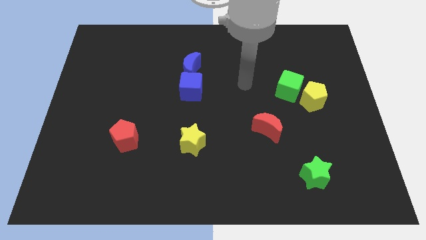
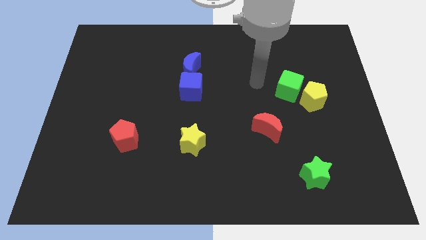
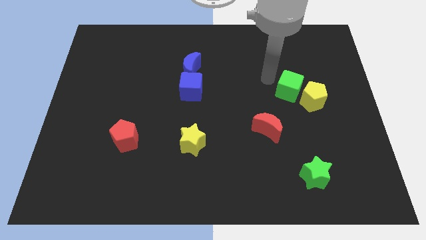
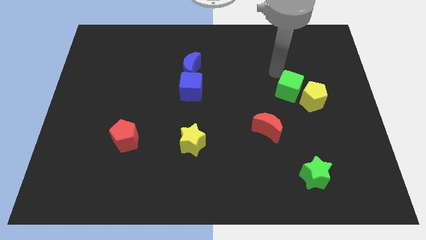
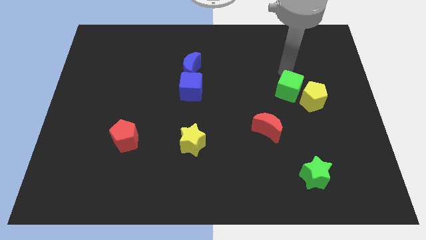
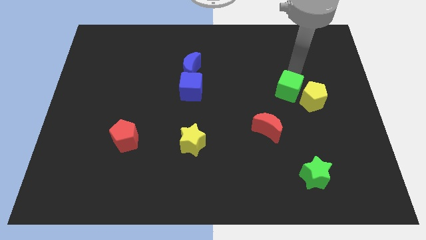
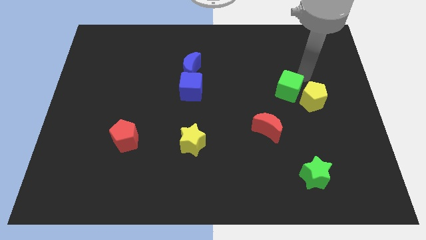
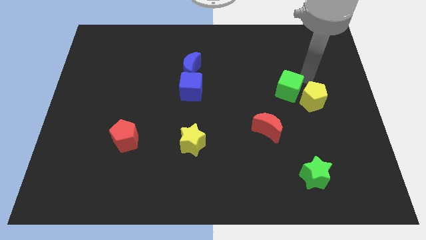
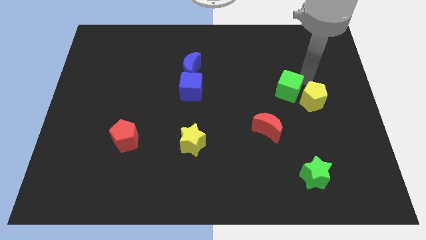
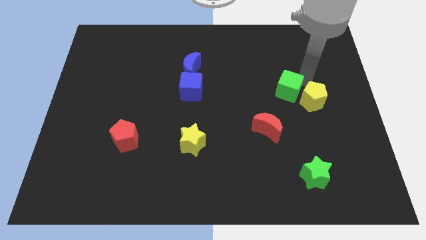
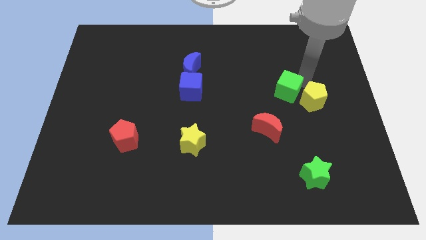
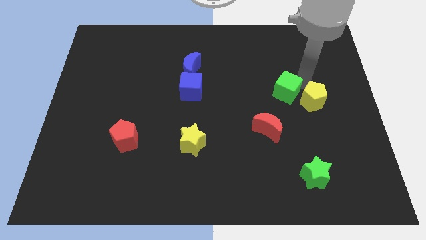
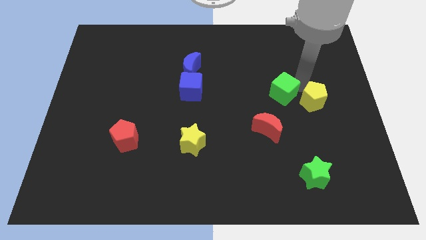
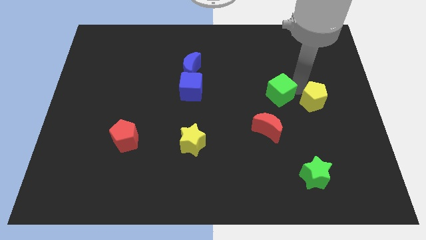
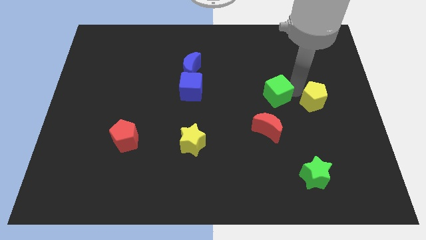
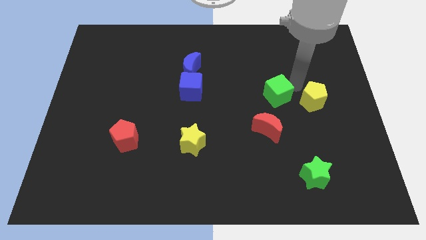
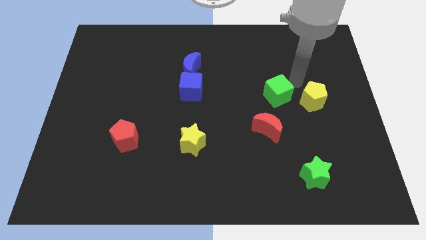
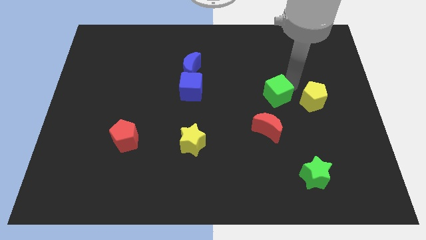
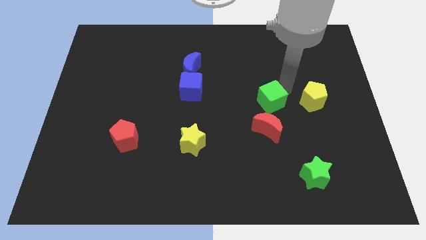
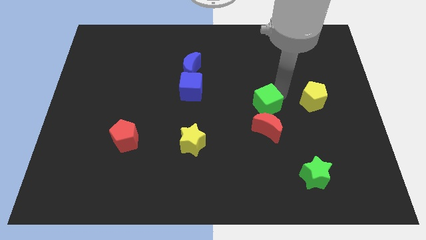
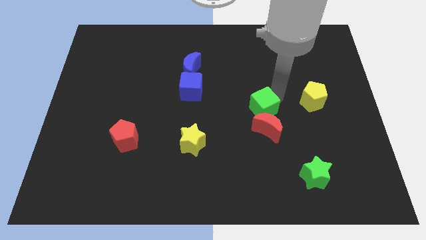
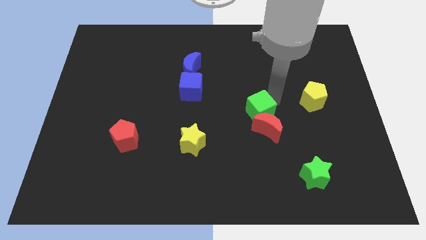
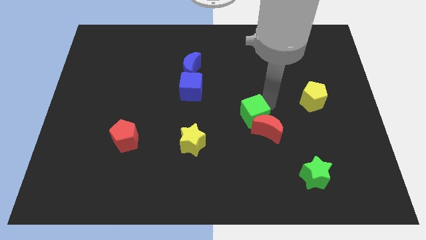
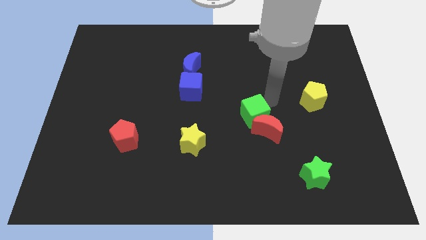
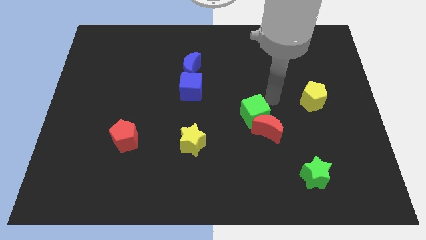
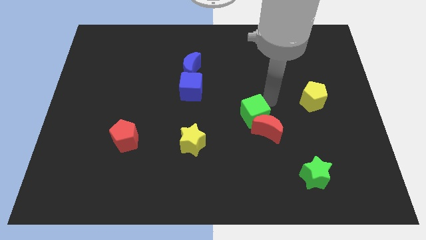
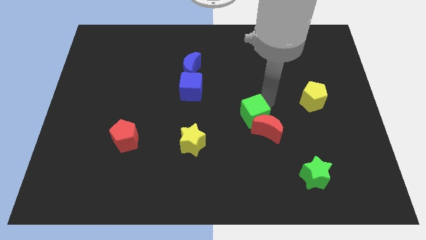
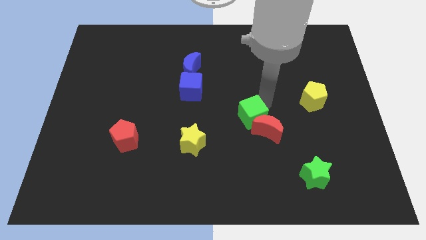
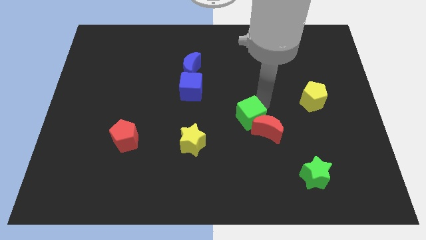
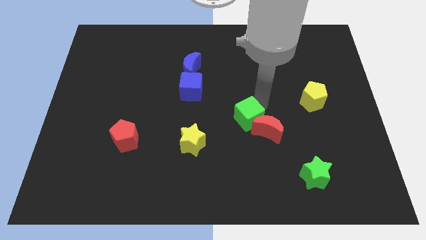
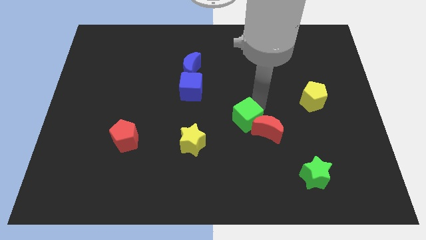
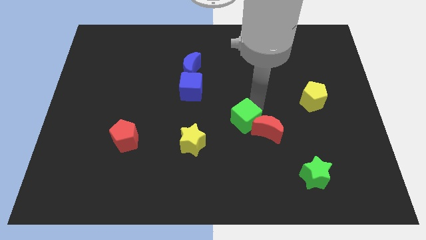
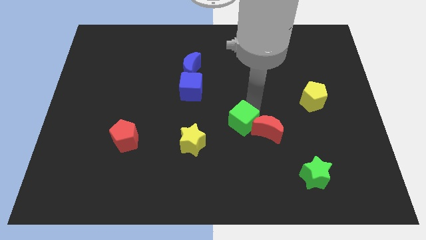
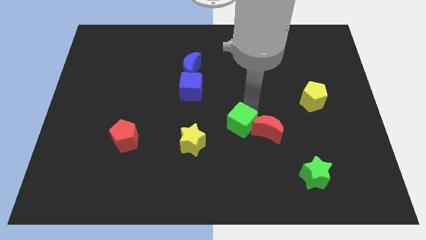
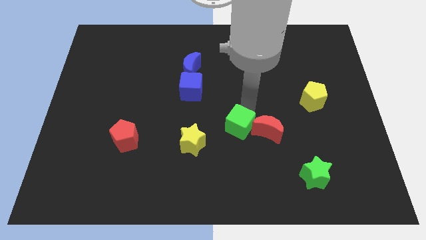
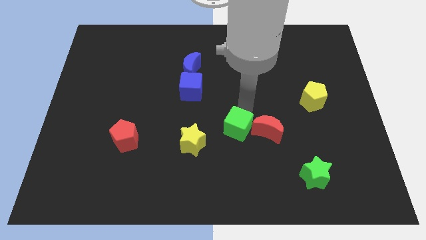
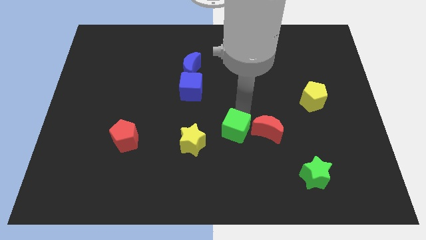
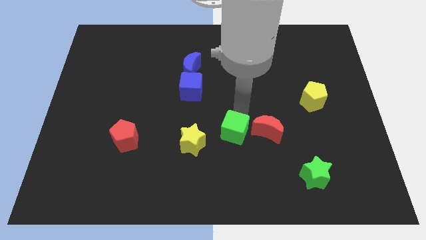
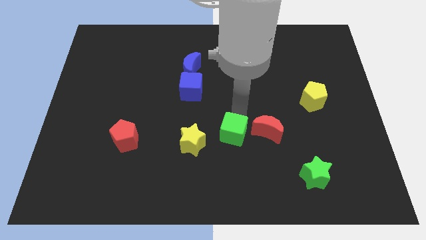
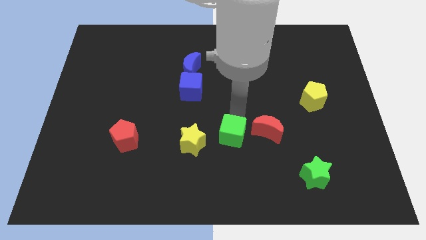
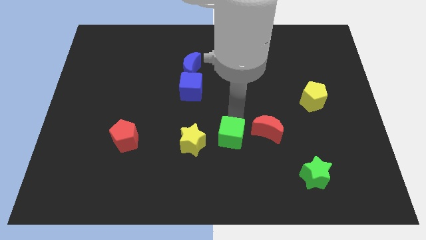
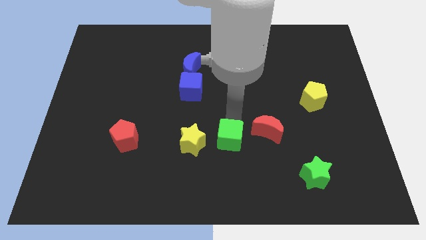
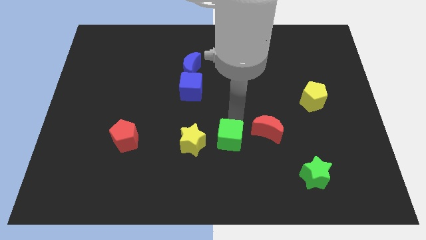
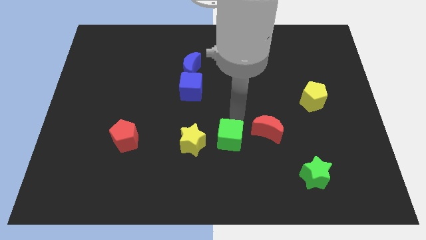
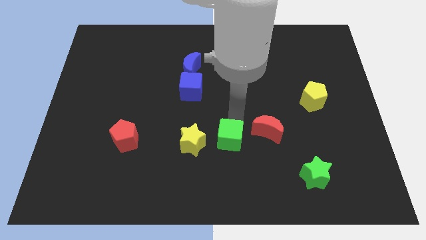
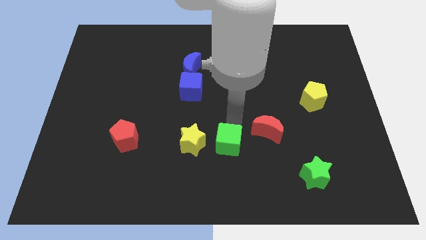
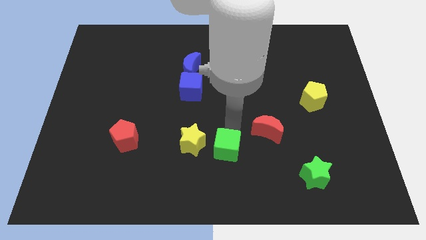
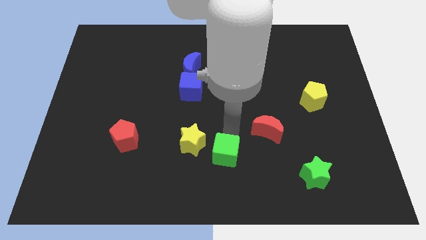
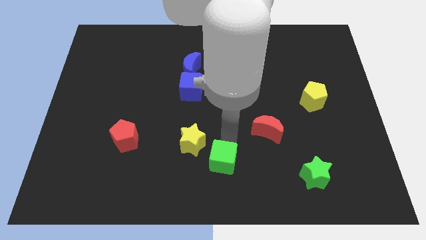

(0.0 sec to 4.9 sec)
push the green cube to the bottom side

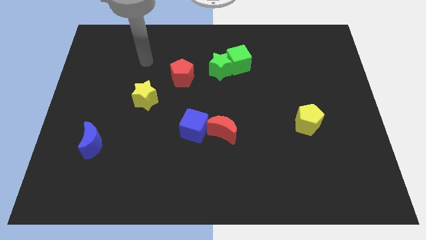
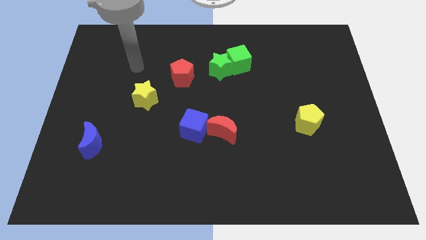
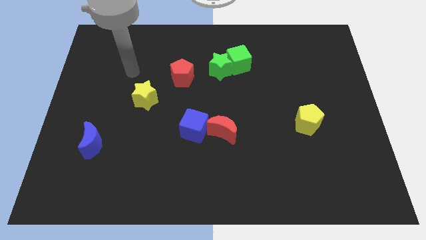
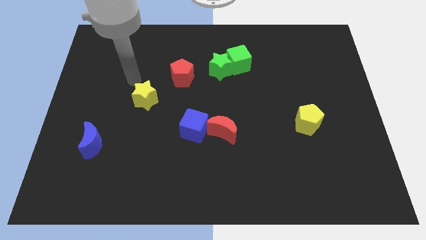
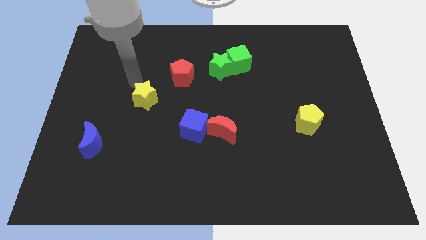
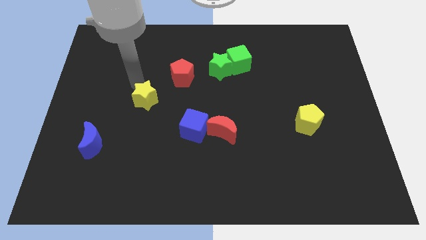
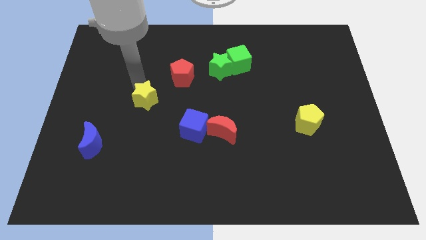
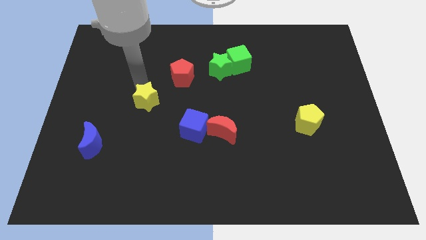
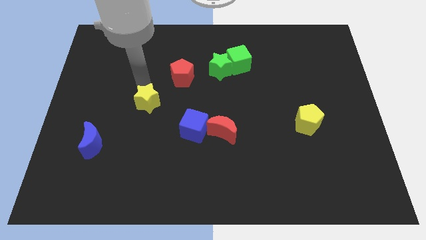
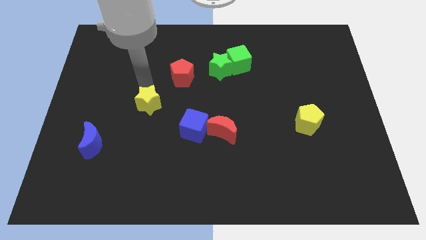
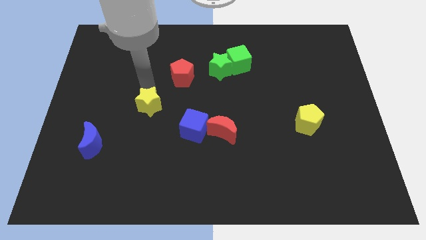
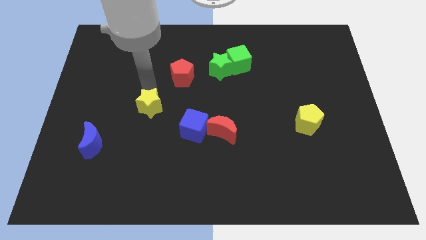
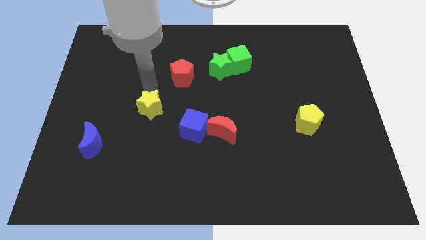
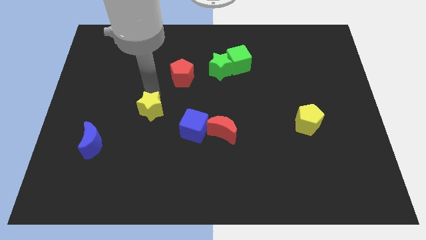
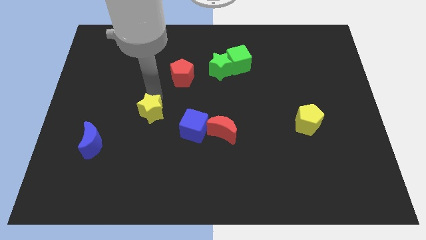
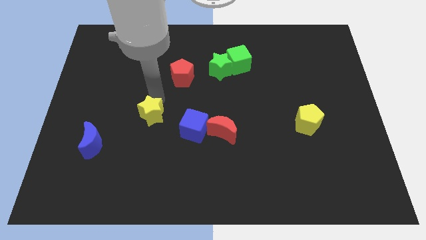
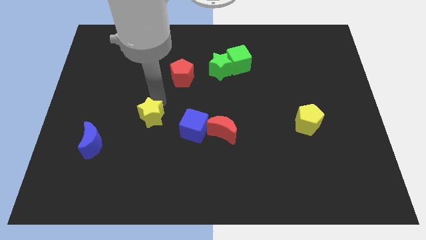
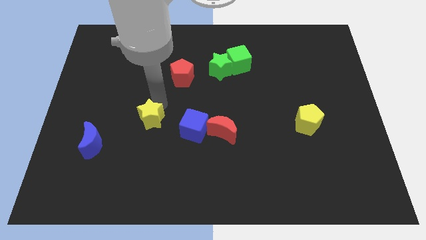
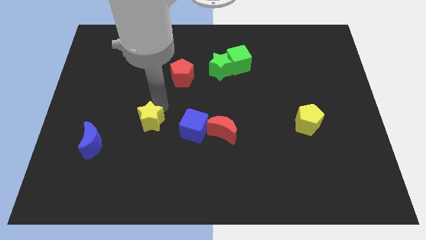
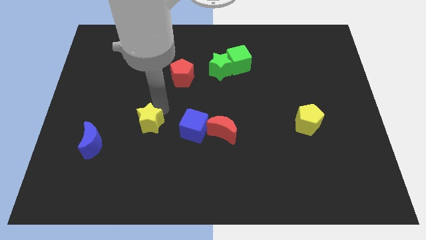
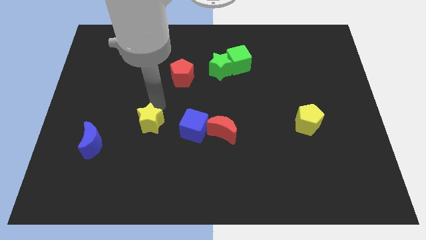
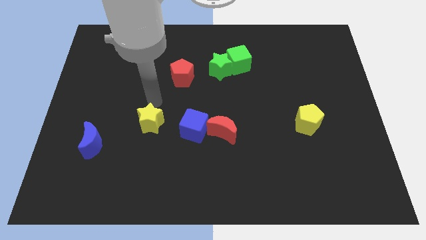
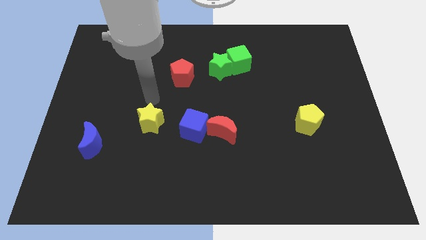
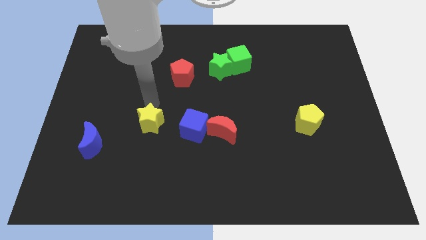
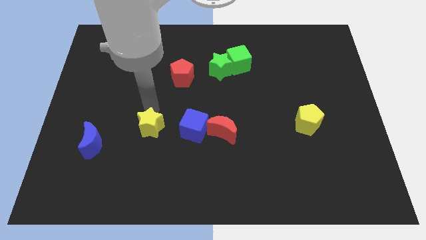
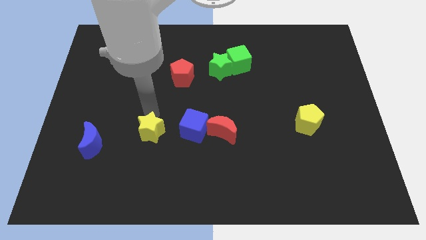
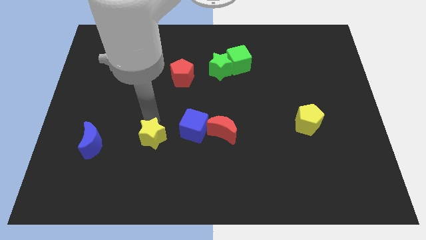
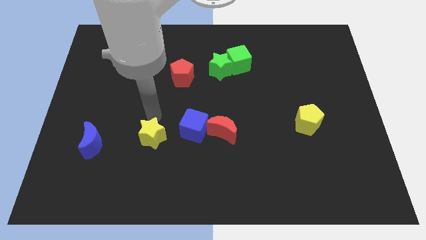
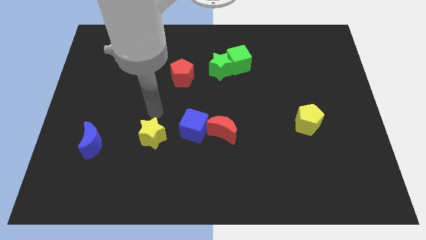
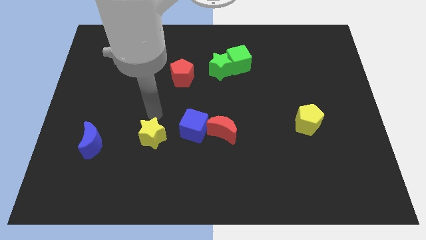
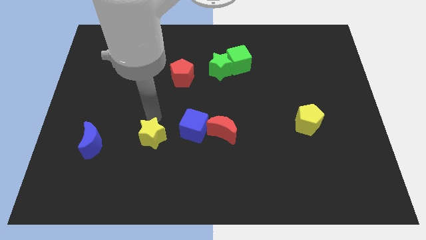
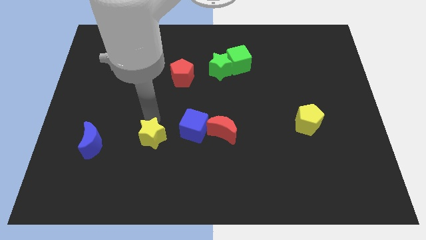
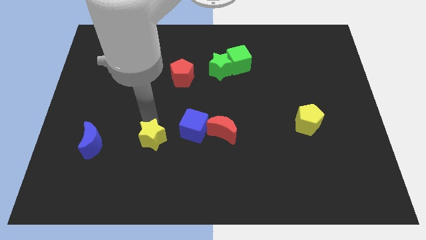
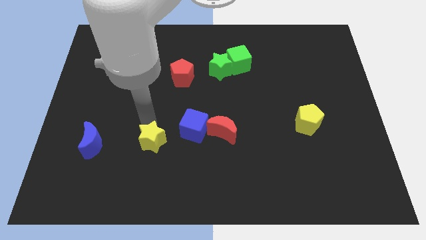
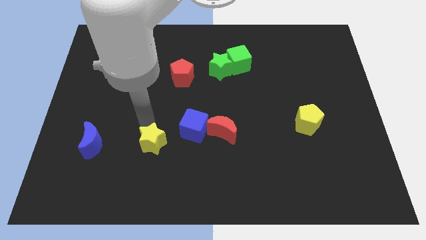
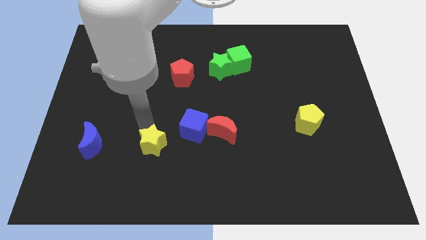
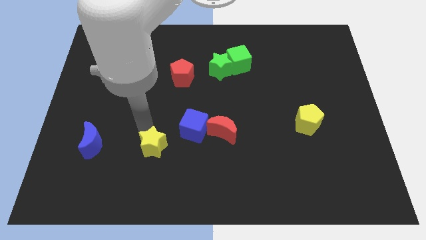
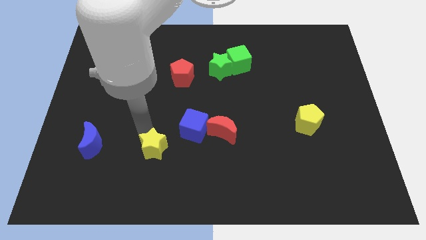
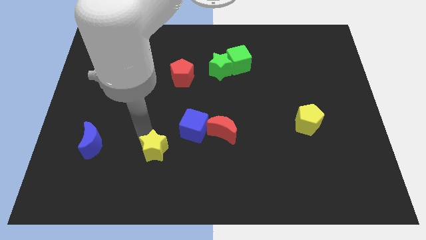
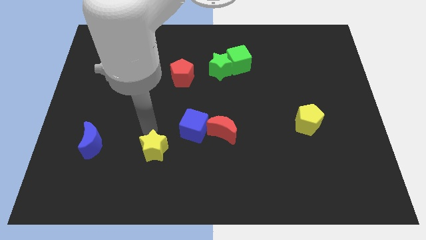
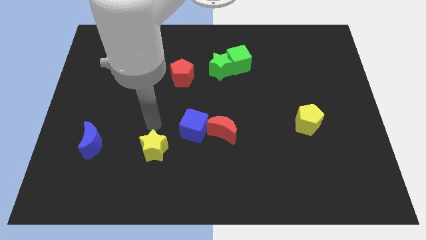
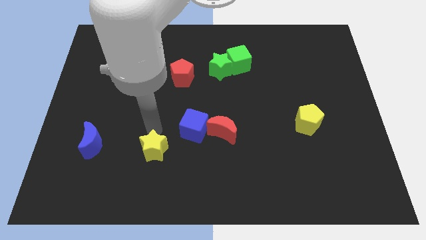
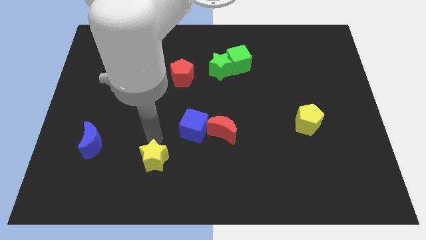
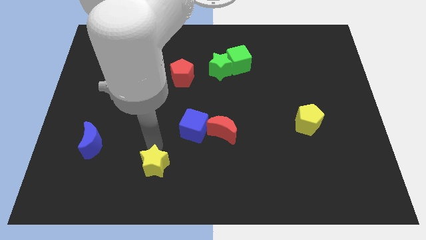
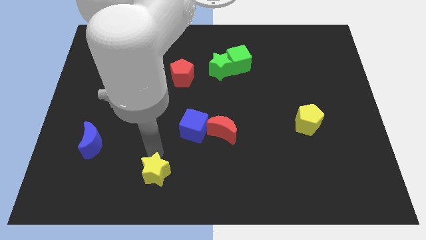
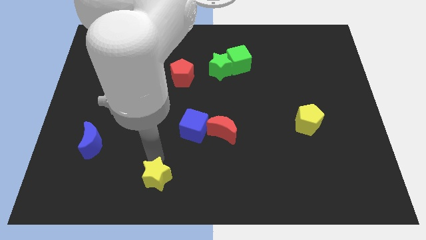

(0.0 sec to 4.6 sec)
push the yellow star to the bottom side
